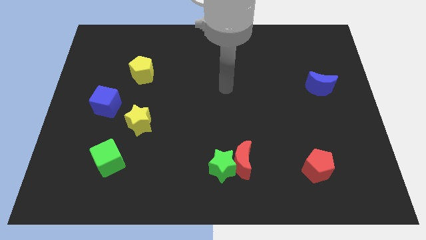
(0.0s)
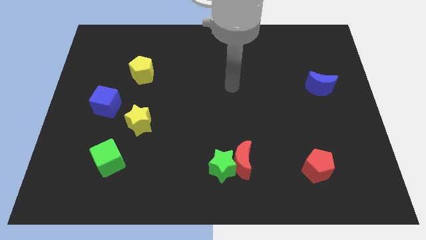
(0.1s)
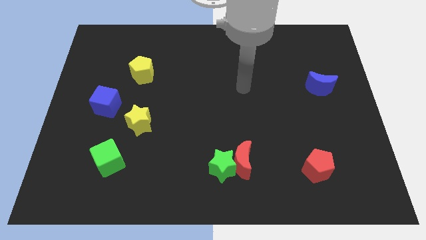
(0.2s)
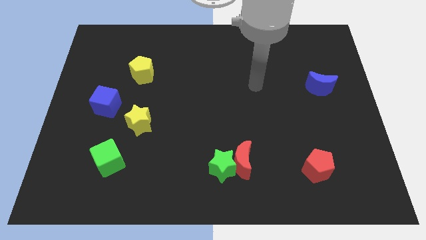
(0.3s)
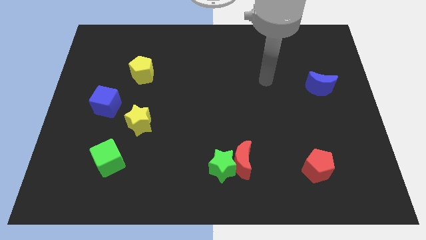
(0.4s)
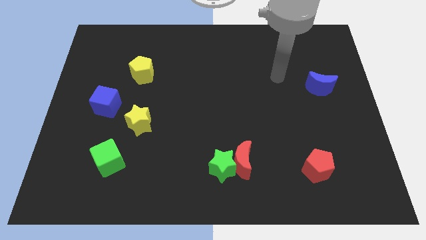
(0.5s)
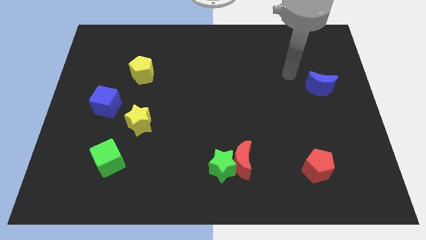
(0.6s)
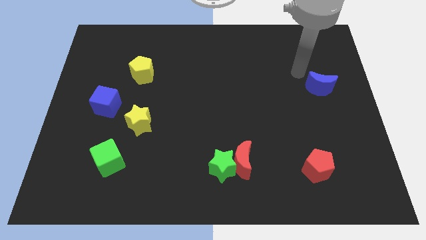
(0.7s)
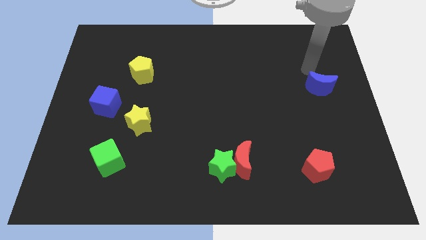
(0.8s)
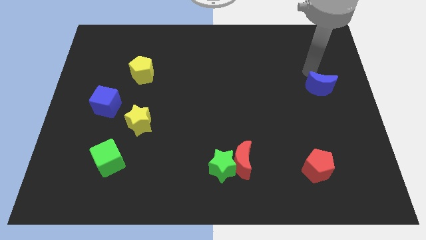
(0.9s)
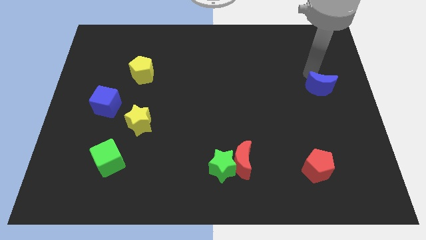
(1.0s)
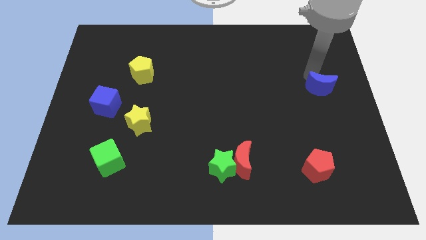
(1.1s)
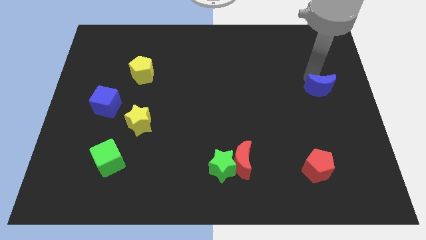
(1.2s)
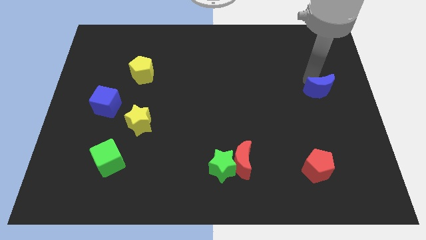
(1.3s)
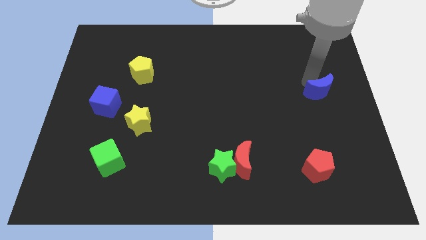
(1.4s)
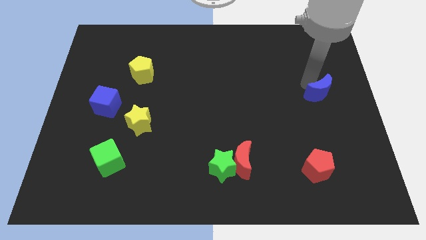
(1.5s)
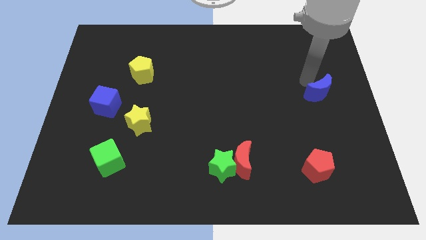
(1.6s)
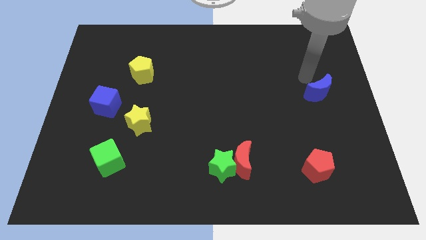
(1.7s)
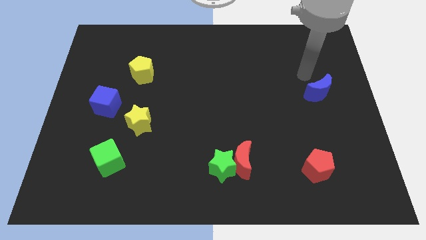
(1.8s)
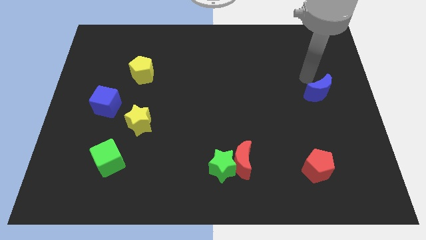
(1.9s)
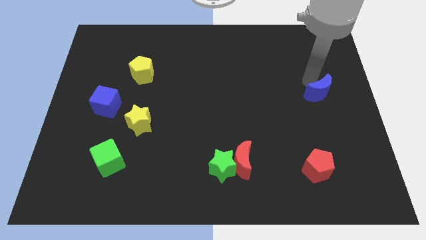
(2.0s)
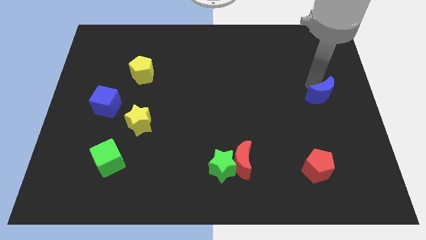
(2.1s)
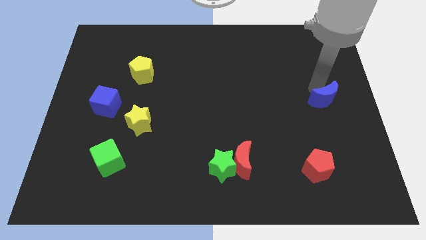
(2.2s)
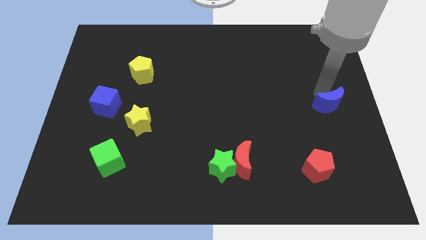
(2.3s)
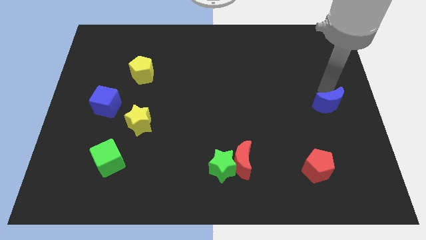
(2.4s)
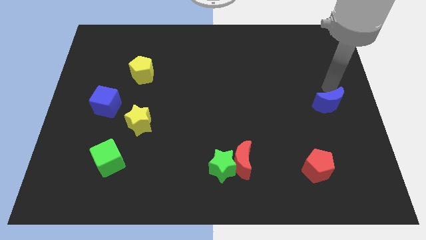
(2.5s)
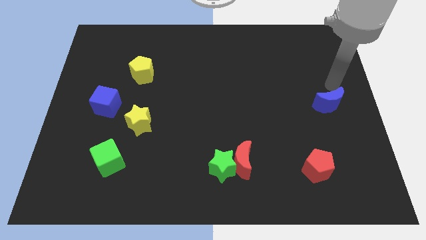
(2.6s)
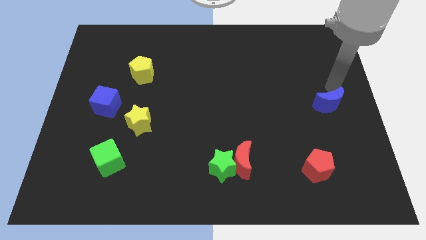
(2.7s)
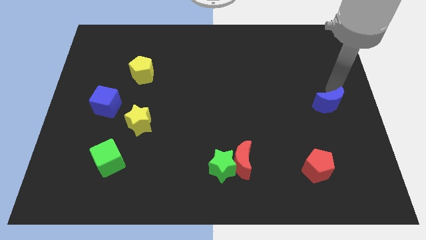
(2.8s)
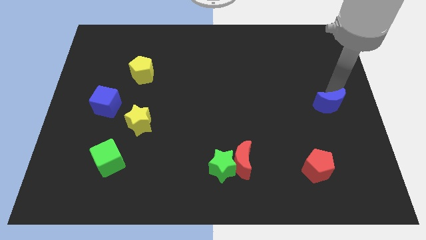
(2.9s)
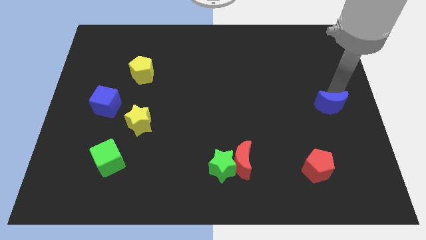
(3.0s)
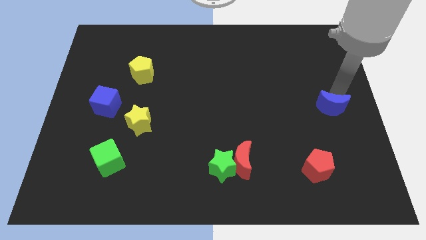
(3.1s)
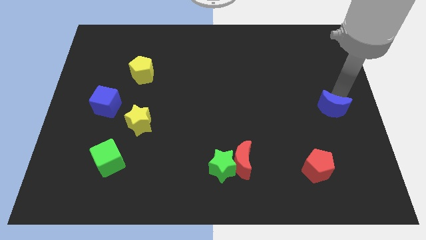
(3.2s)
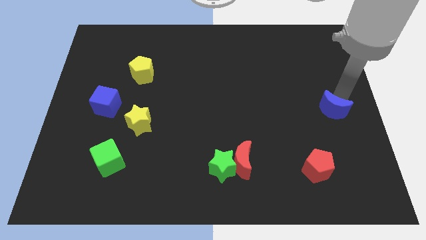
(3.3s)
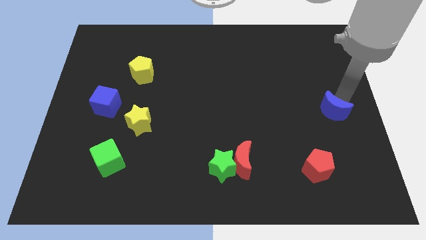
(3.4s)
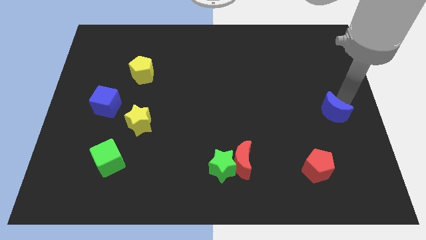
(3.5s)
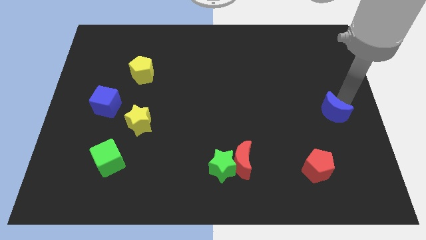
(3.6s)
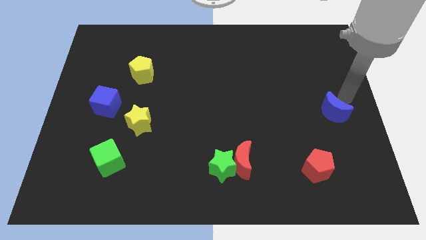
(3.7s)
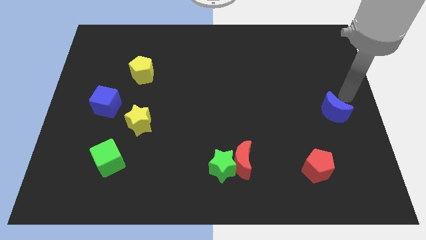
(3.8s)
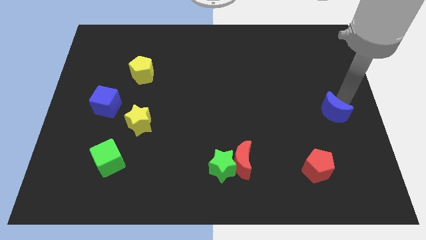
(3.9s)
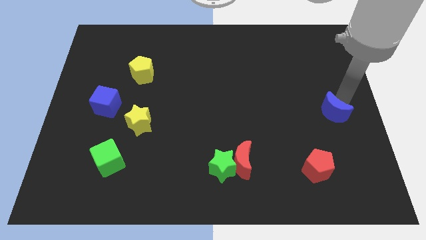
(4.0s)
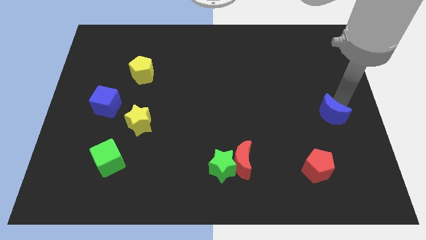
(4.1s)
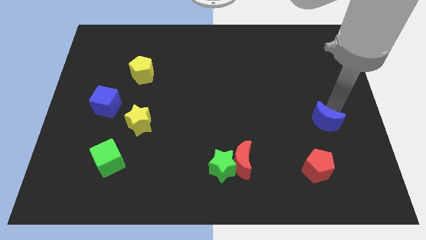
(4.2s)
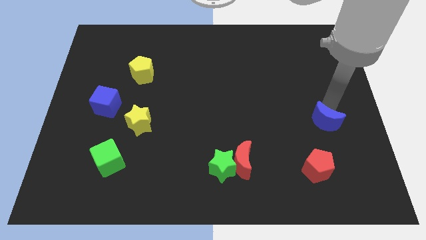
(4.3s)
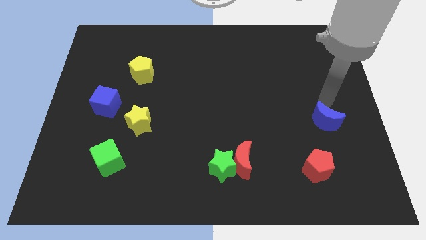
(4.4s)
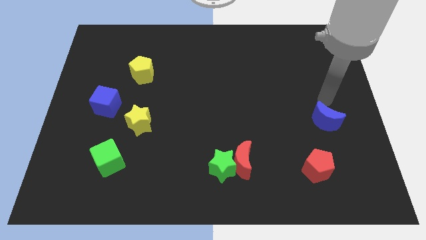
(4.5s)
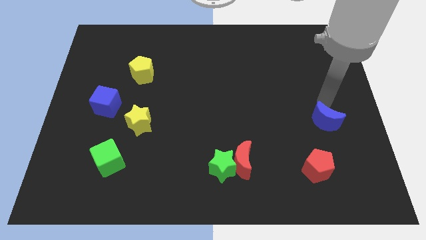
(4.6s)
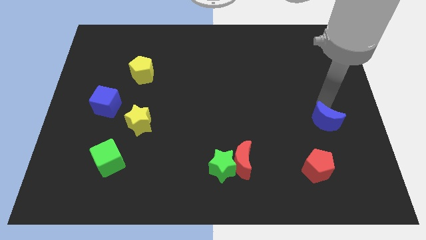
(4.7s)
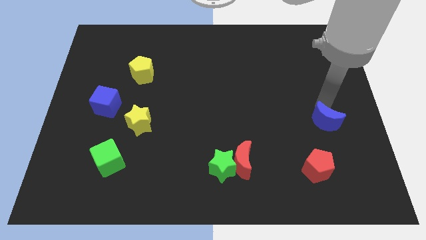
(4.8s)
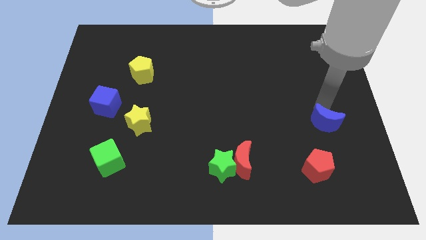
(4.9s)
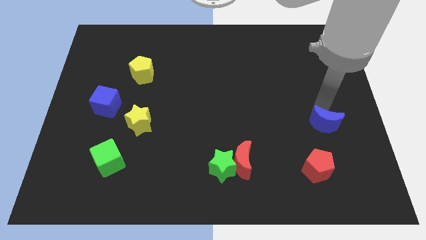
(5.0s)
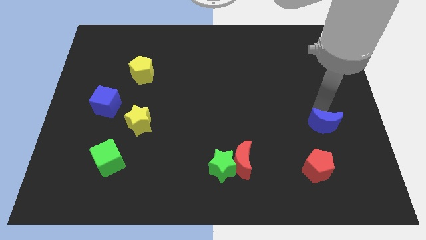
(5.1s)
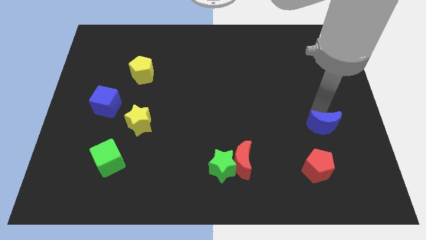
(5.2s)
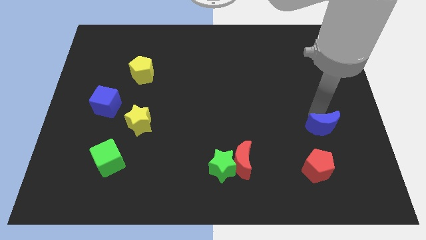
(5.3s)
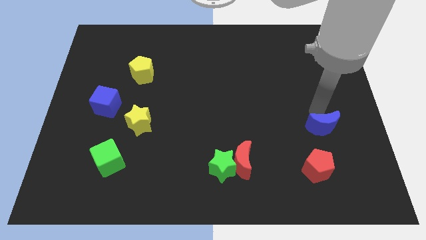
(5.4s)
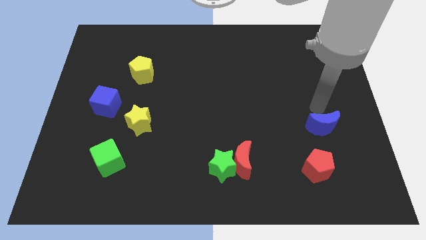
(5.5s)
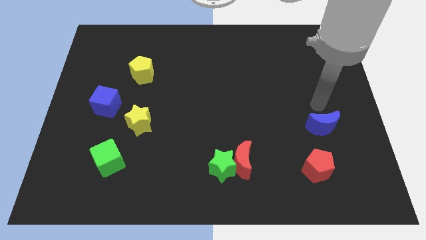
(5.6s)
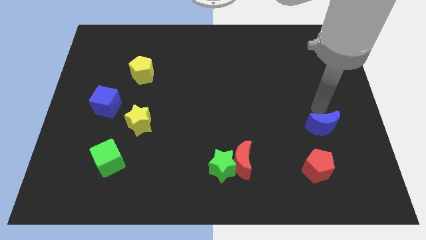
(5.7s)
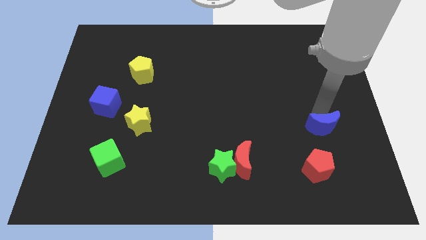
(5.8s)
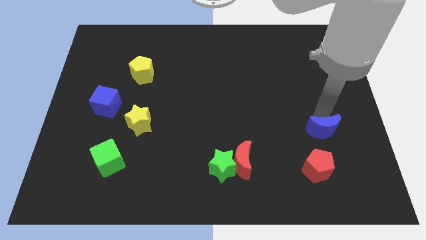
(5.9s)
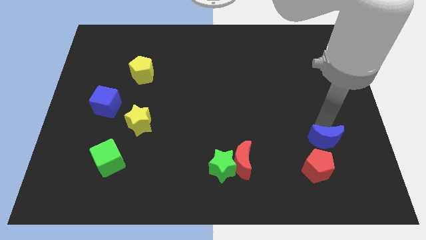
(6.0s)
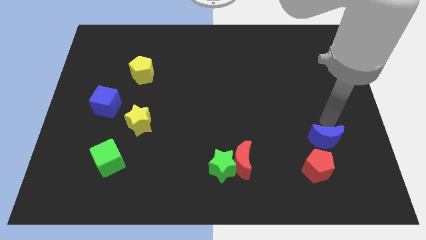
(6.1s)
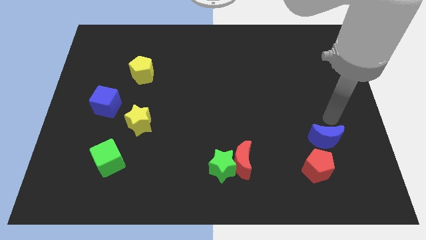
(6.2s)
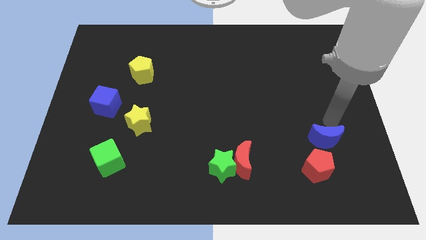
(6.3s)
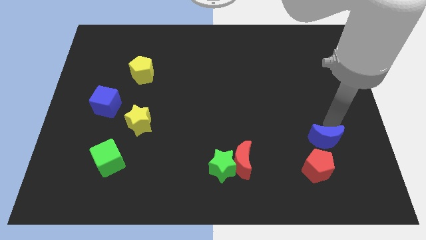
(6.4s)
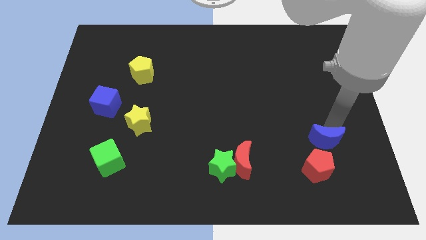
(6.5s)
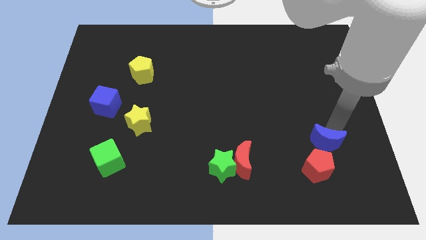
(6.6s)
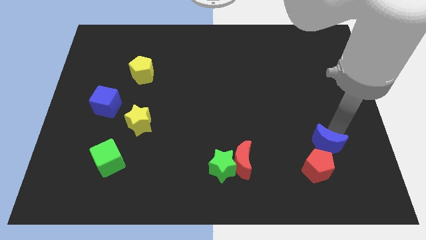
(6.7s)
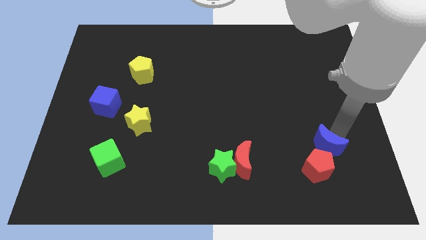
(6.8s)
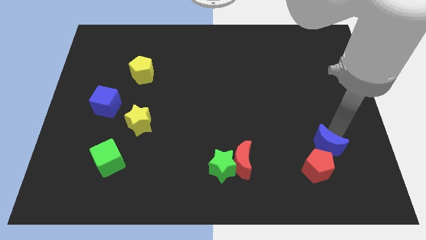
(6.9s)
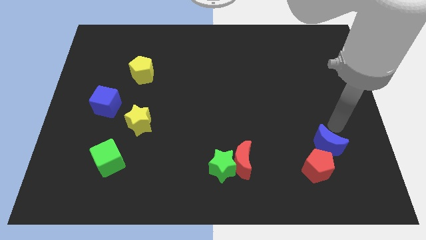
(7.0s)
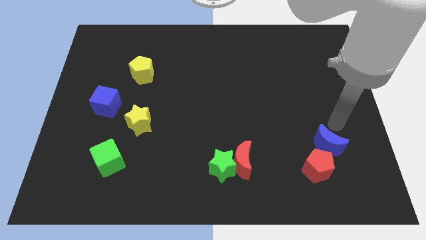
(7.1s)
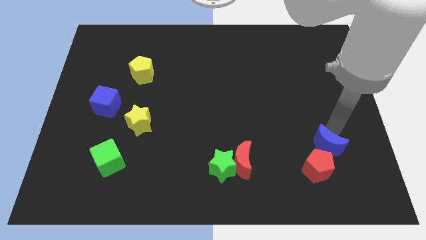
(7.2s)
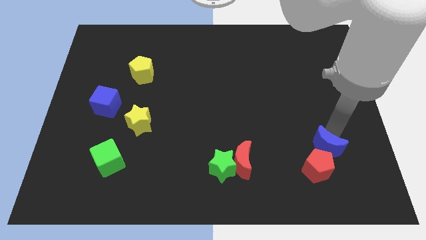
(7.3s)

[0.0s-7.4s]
slide the blue moon to the red pentagon
